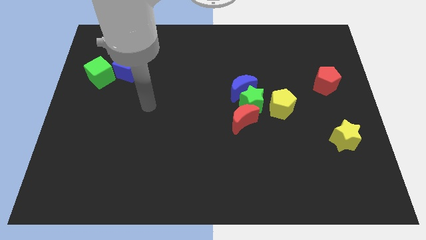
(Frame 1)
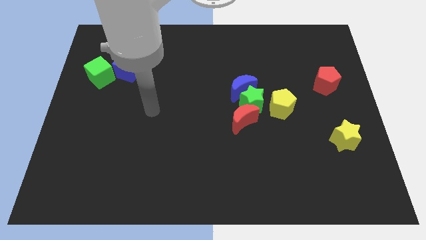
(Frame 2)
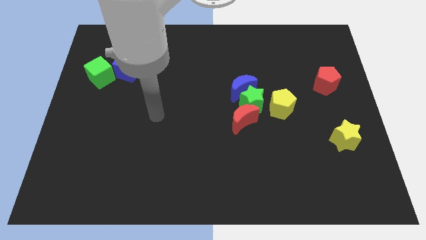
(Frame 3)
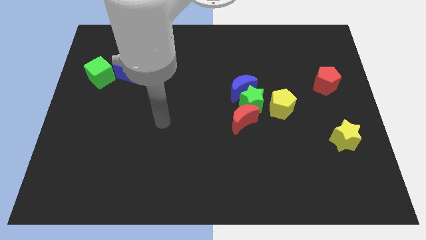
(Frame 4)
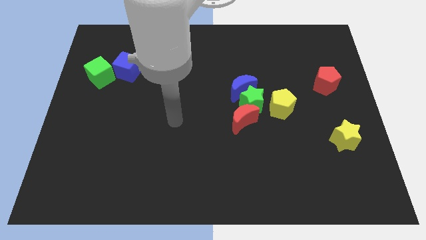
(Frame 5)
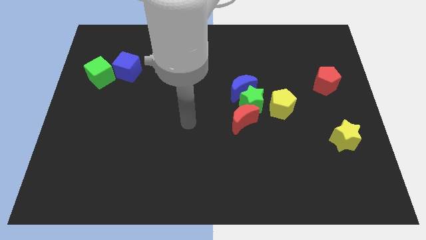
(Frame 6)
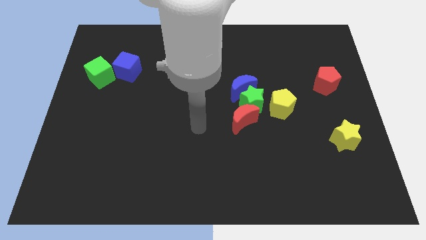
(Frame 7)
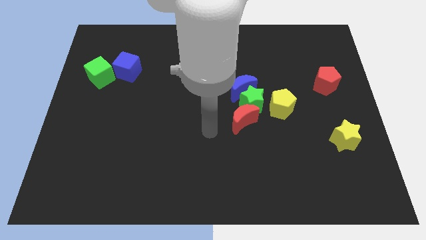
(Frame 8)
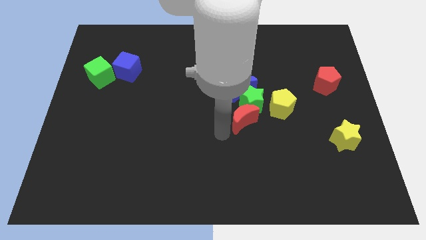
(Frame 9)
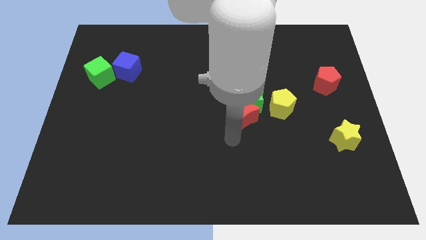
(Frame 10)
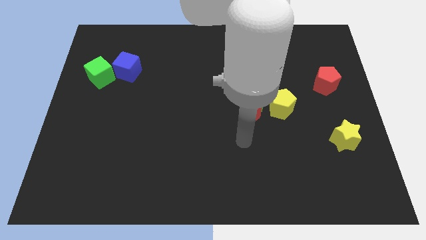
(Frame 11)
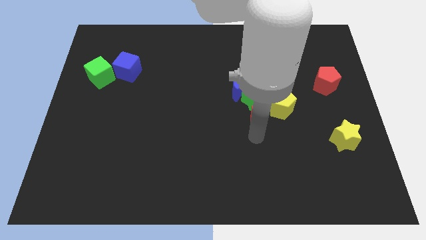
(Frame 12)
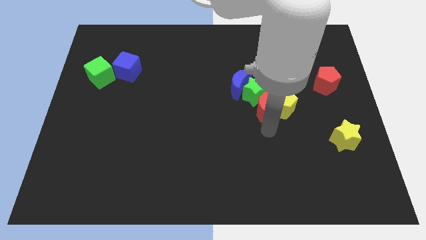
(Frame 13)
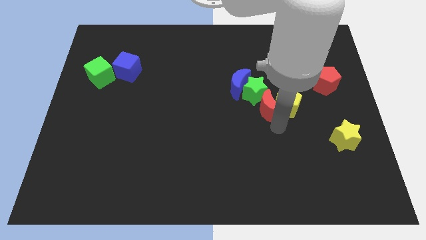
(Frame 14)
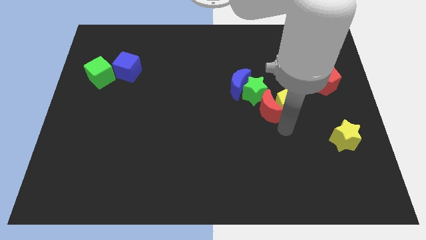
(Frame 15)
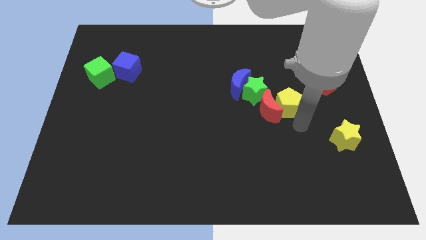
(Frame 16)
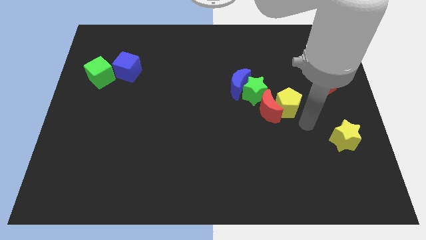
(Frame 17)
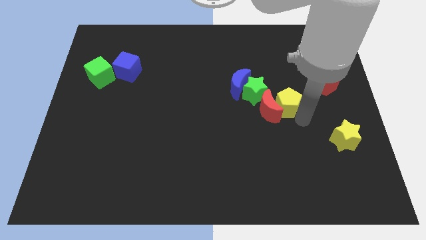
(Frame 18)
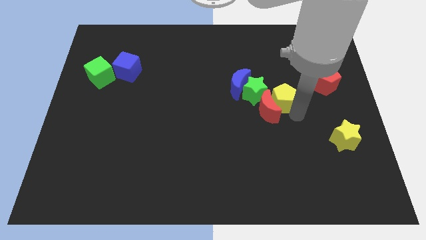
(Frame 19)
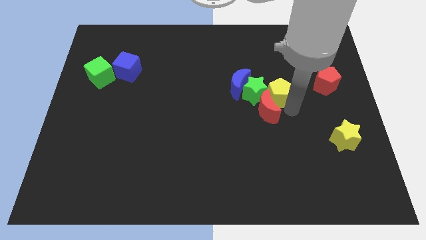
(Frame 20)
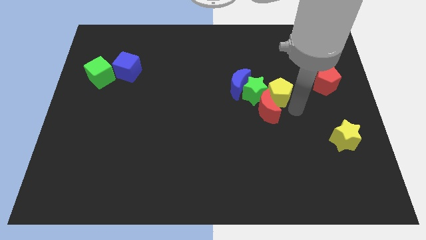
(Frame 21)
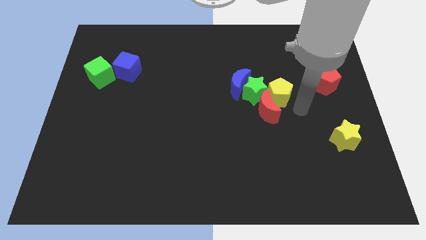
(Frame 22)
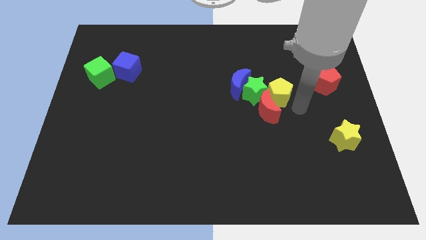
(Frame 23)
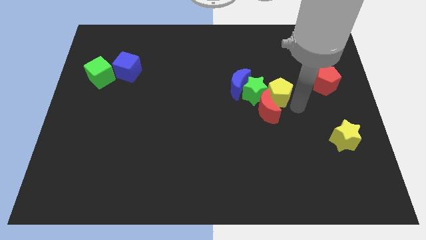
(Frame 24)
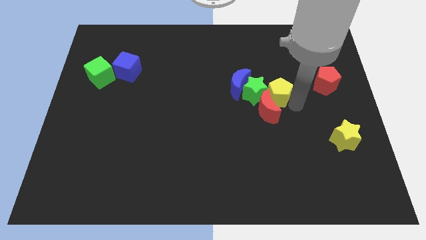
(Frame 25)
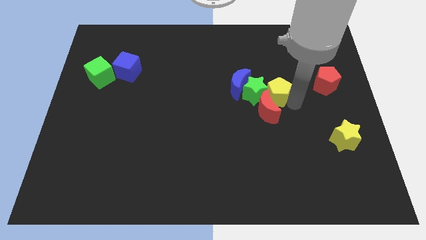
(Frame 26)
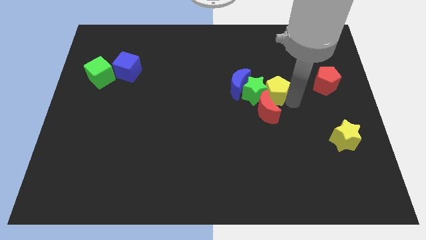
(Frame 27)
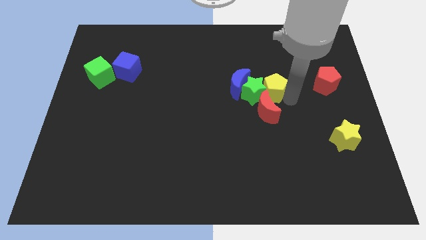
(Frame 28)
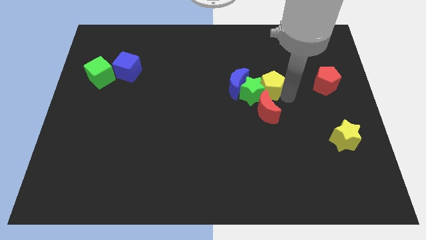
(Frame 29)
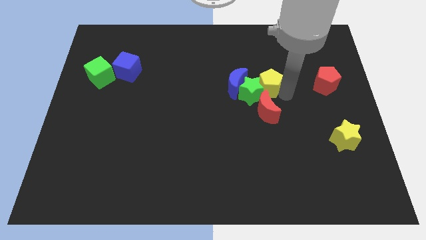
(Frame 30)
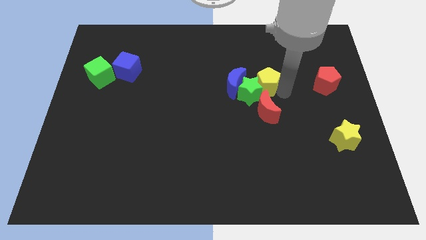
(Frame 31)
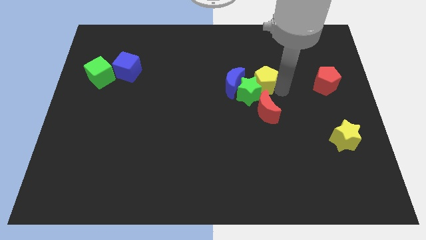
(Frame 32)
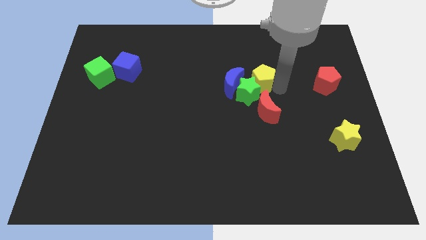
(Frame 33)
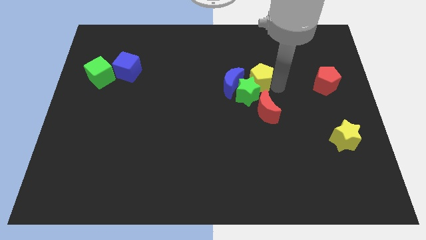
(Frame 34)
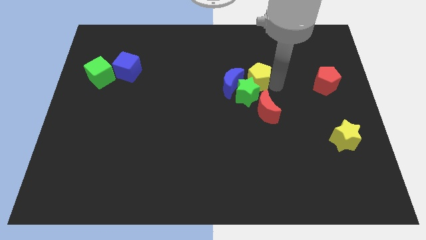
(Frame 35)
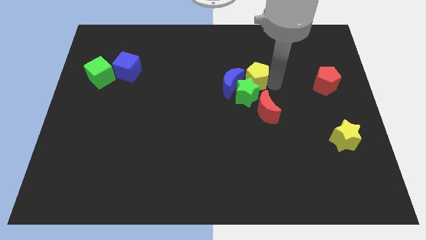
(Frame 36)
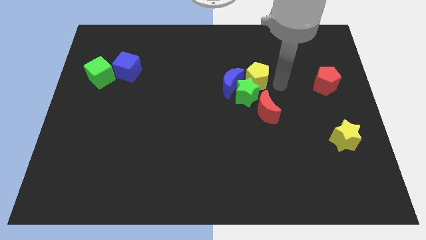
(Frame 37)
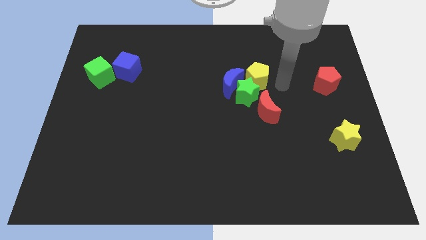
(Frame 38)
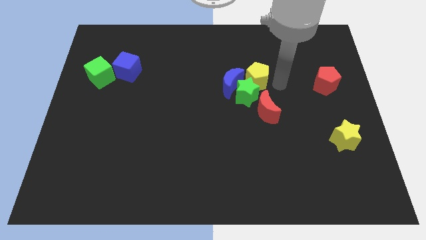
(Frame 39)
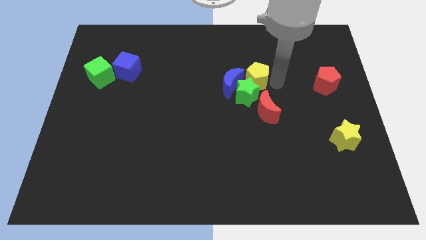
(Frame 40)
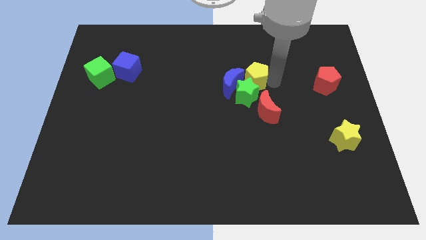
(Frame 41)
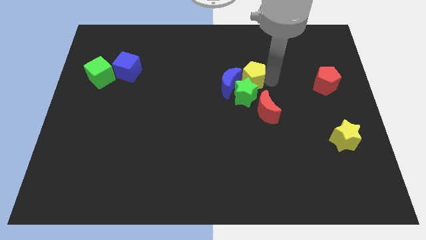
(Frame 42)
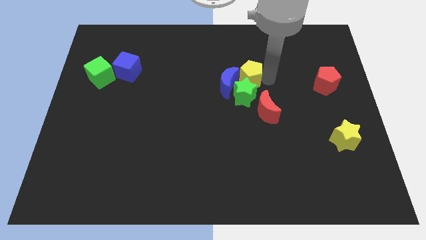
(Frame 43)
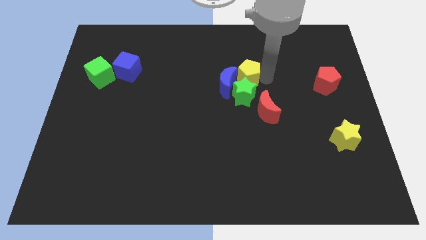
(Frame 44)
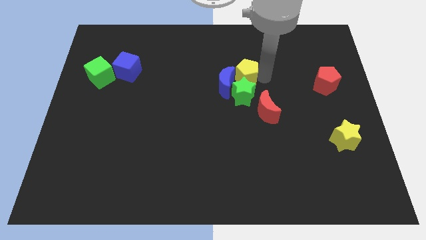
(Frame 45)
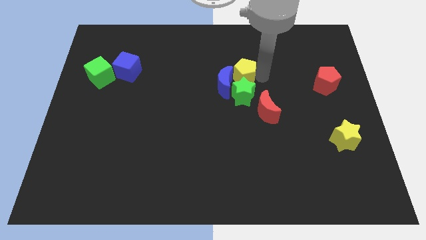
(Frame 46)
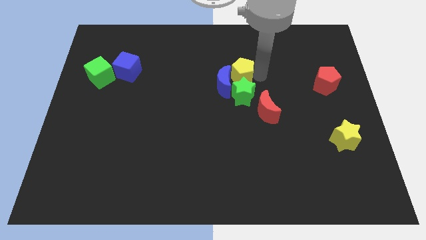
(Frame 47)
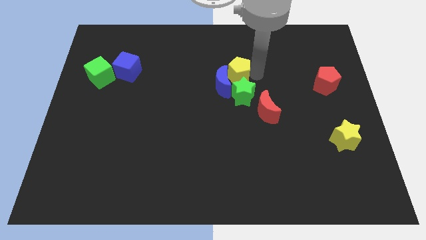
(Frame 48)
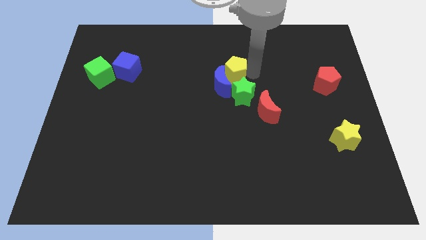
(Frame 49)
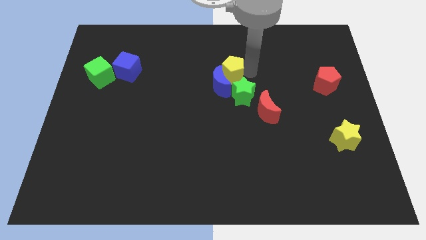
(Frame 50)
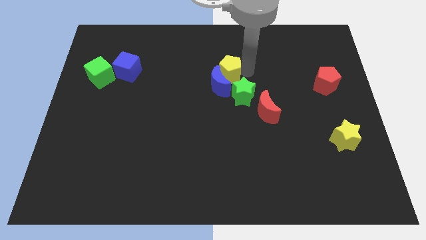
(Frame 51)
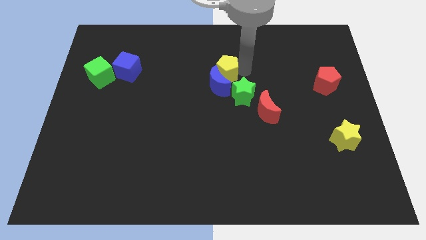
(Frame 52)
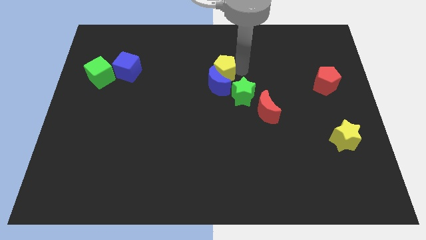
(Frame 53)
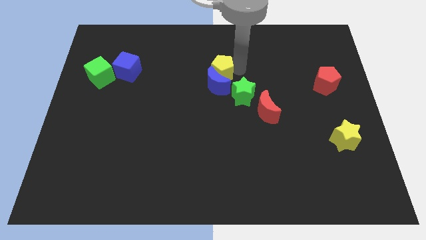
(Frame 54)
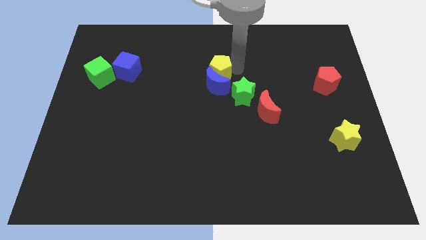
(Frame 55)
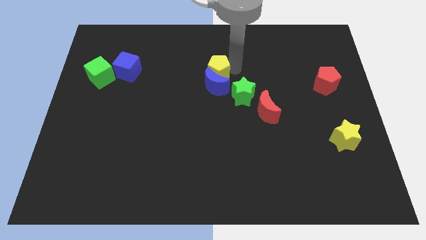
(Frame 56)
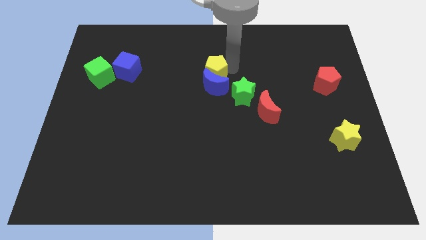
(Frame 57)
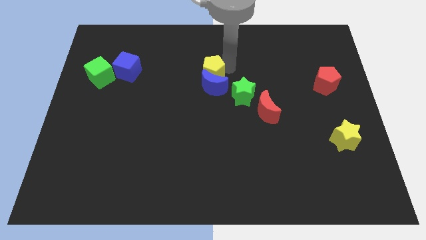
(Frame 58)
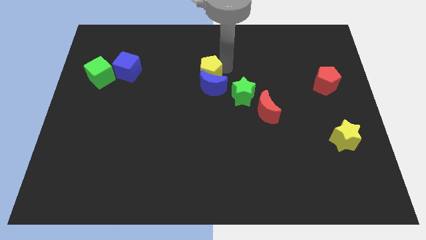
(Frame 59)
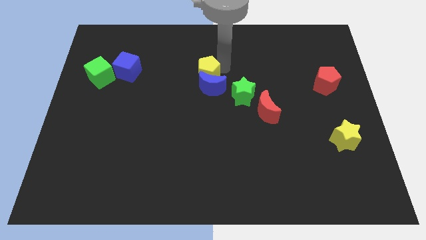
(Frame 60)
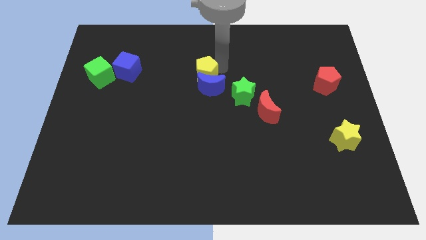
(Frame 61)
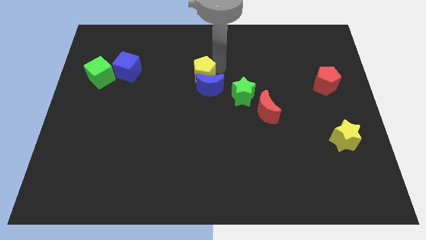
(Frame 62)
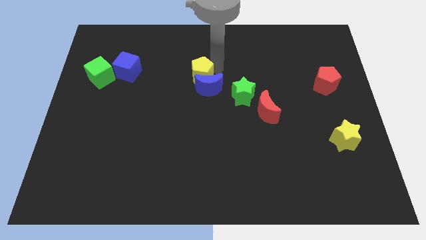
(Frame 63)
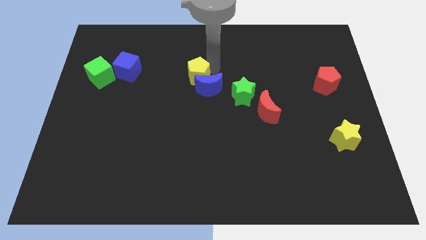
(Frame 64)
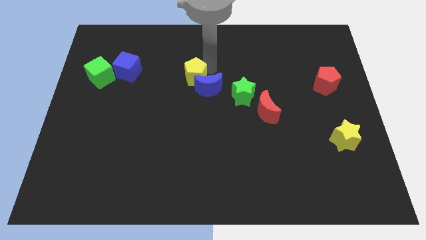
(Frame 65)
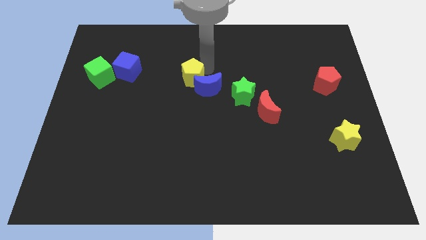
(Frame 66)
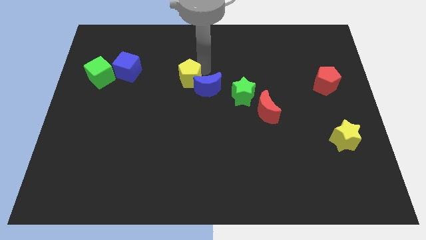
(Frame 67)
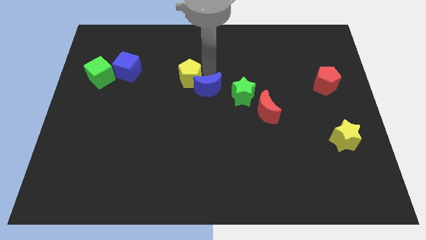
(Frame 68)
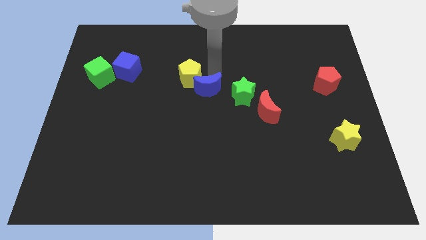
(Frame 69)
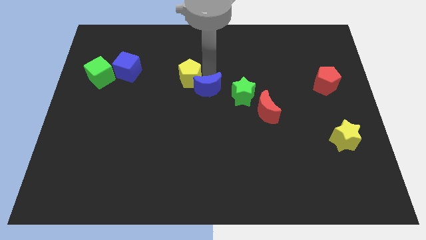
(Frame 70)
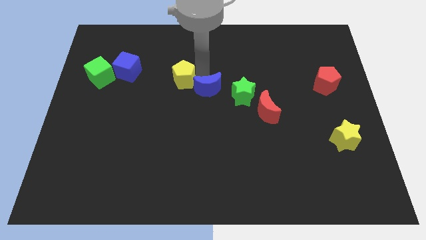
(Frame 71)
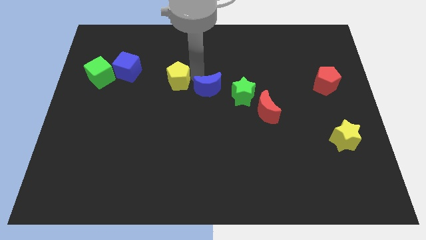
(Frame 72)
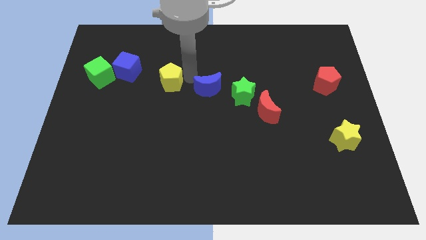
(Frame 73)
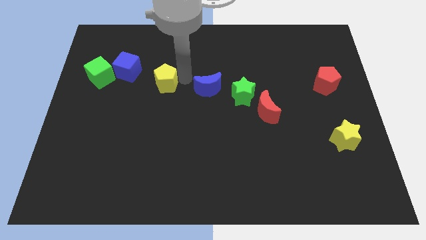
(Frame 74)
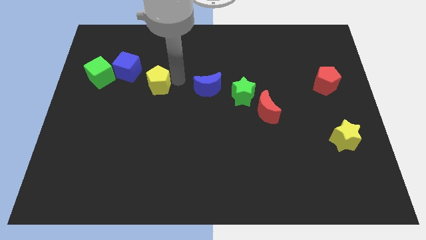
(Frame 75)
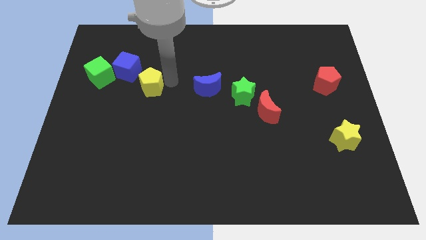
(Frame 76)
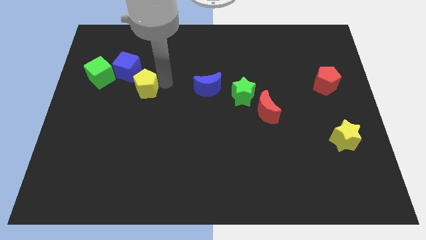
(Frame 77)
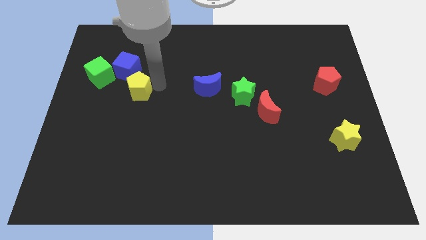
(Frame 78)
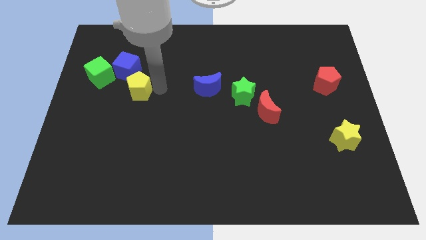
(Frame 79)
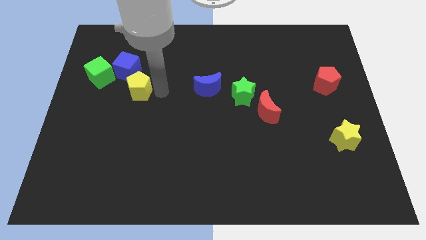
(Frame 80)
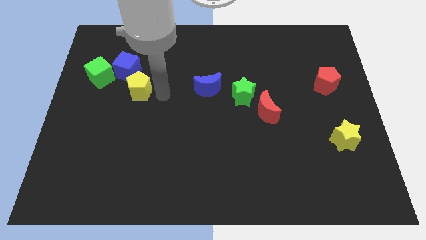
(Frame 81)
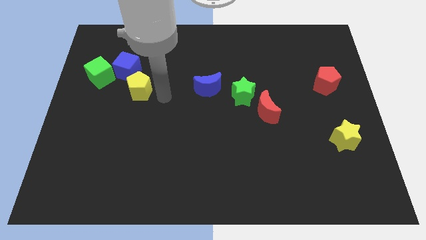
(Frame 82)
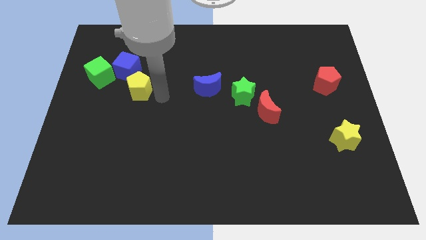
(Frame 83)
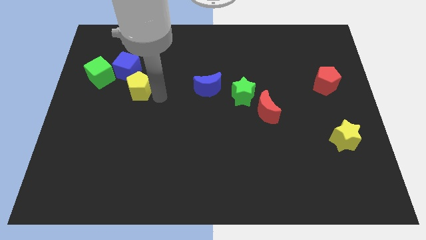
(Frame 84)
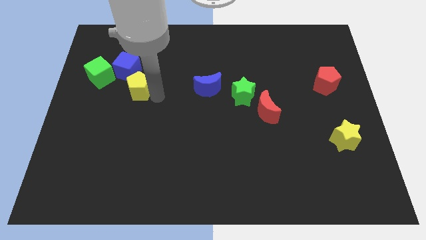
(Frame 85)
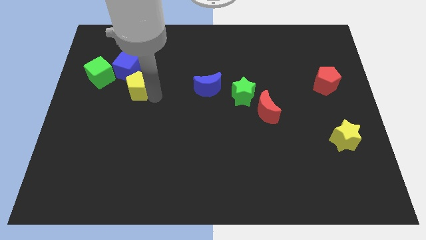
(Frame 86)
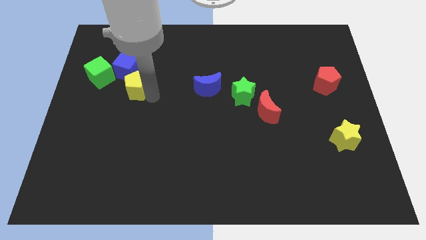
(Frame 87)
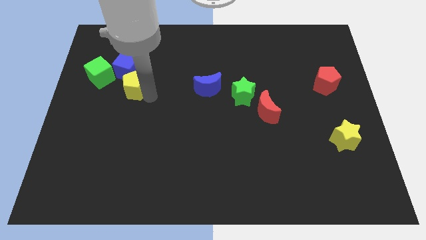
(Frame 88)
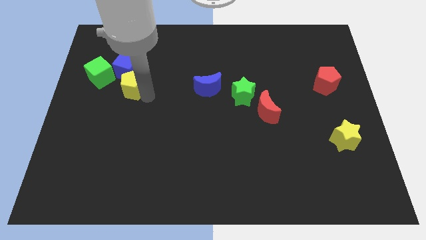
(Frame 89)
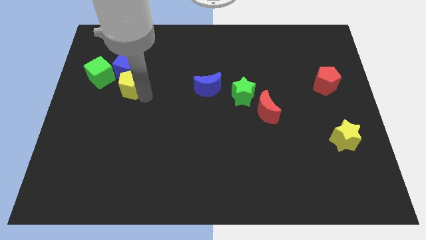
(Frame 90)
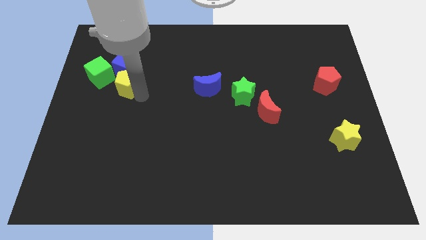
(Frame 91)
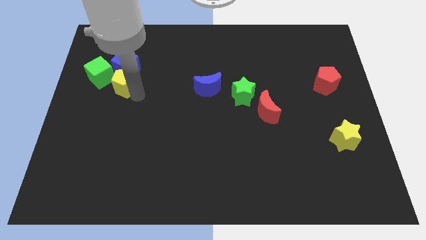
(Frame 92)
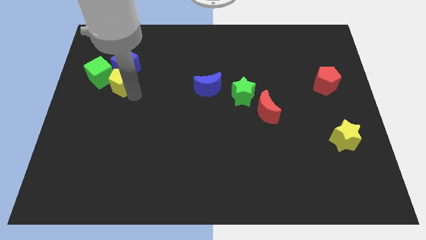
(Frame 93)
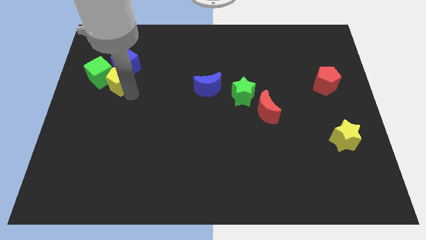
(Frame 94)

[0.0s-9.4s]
push the yellow pentagon towards the green cube
